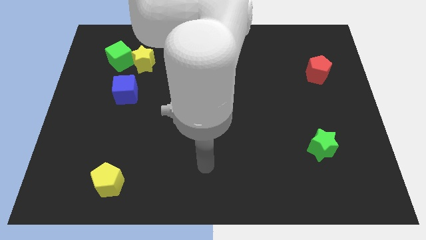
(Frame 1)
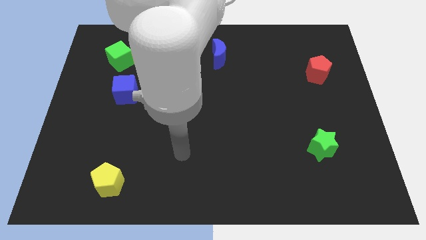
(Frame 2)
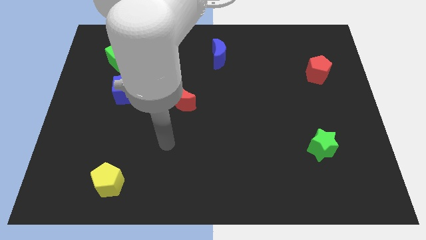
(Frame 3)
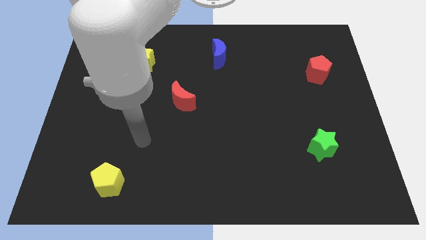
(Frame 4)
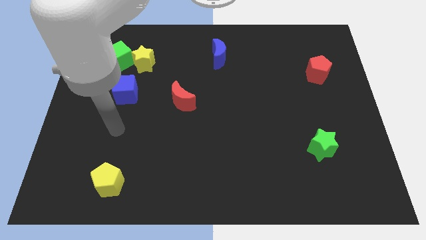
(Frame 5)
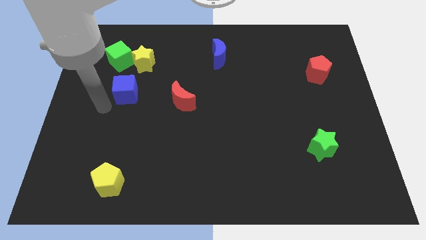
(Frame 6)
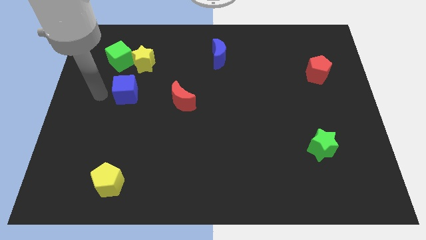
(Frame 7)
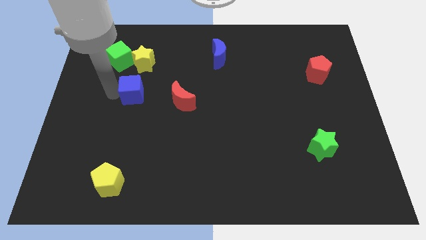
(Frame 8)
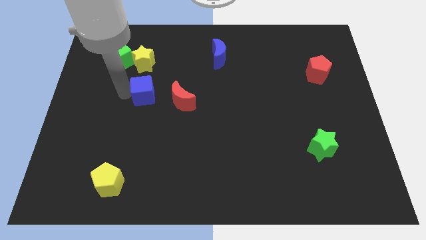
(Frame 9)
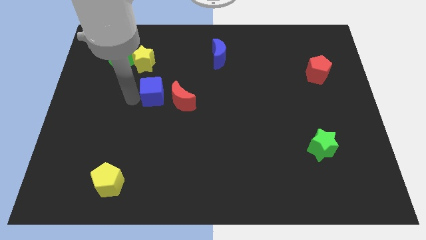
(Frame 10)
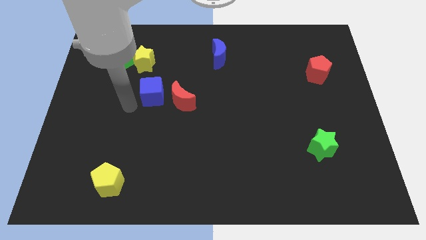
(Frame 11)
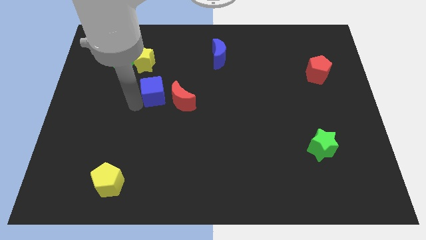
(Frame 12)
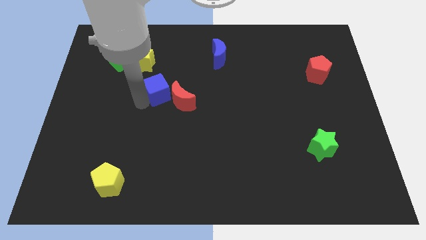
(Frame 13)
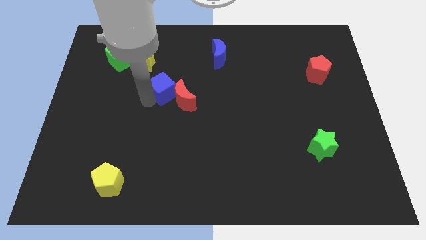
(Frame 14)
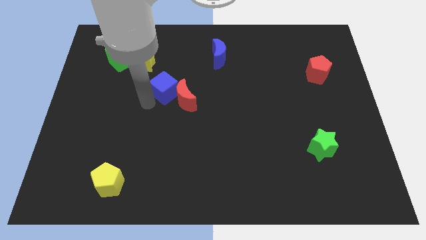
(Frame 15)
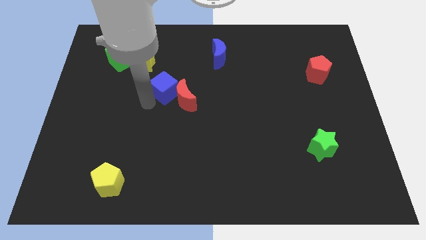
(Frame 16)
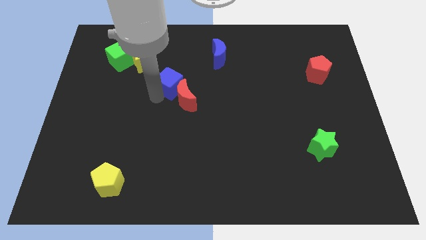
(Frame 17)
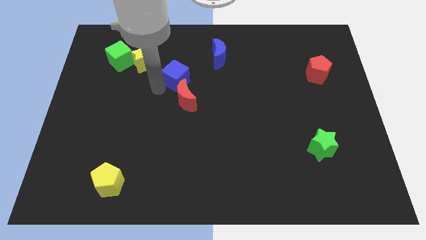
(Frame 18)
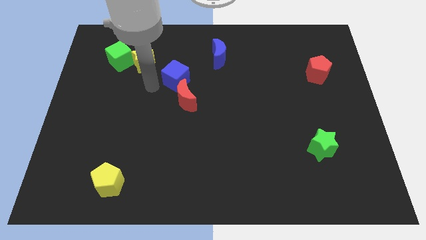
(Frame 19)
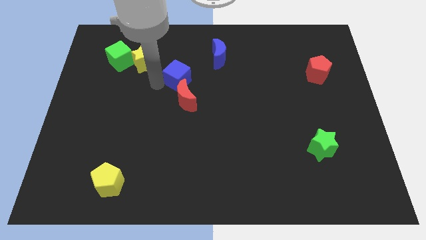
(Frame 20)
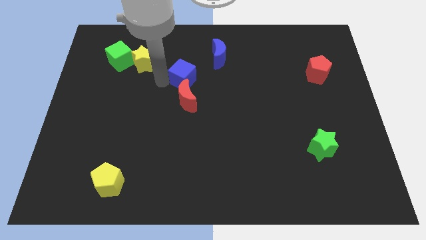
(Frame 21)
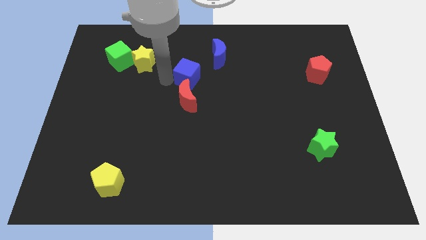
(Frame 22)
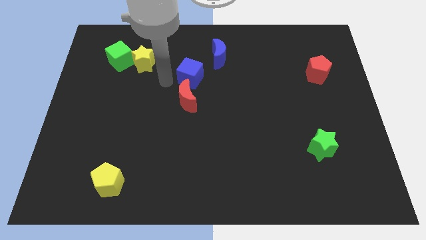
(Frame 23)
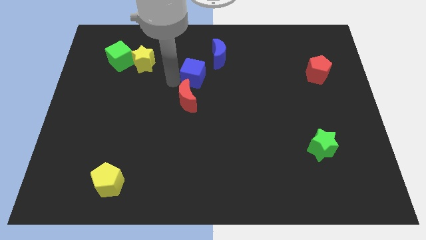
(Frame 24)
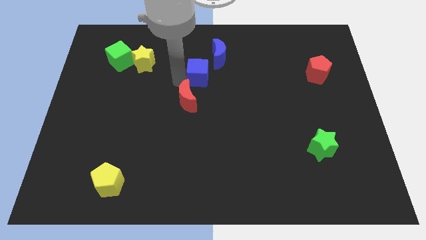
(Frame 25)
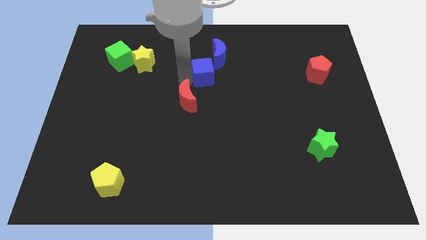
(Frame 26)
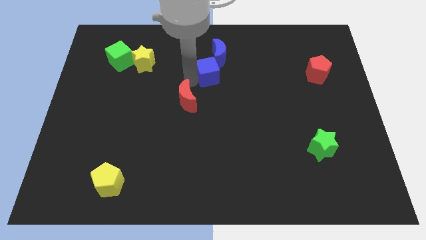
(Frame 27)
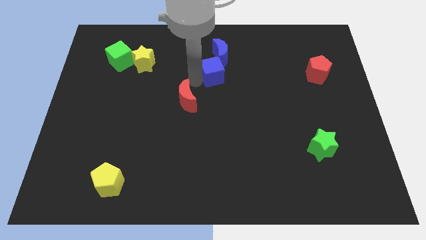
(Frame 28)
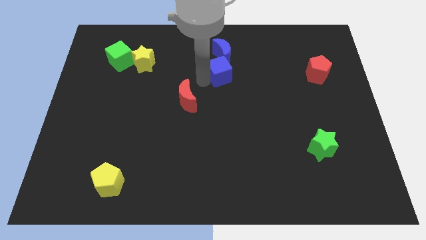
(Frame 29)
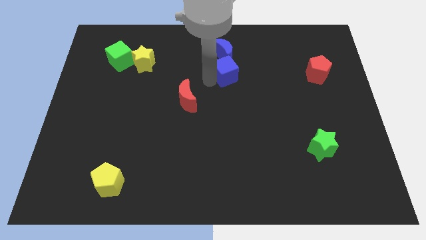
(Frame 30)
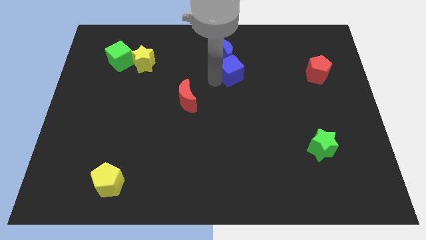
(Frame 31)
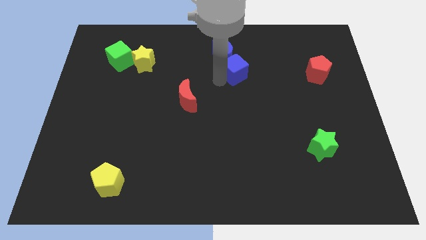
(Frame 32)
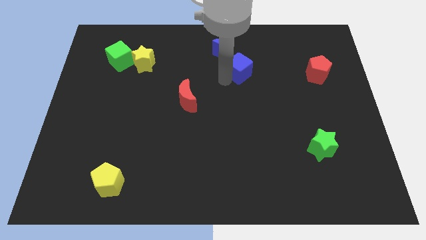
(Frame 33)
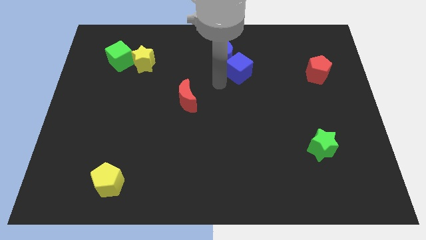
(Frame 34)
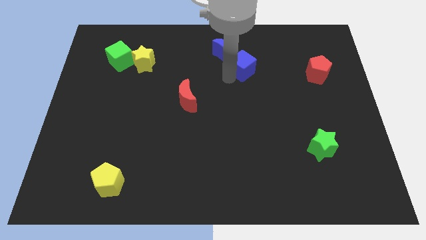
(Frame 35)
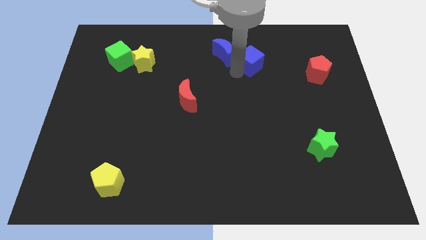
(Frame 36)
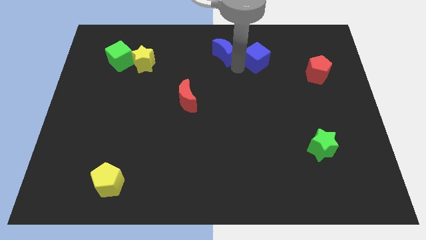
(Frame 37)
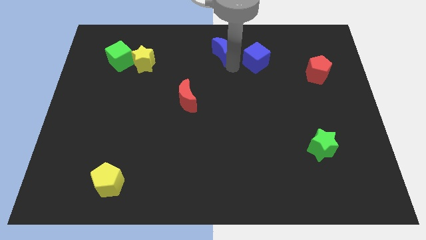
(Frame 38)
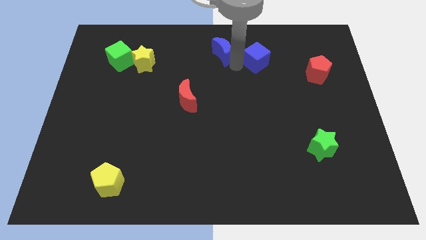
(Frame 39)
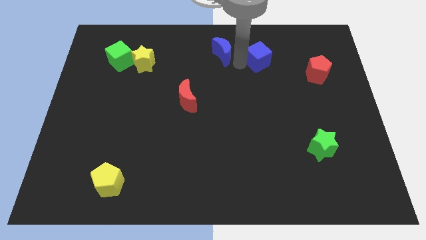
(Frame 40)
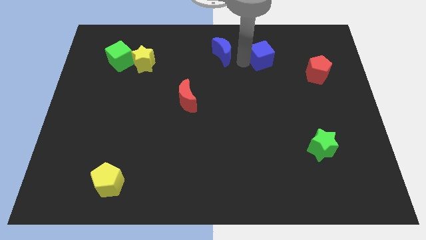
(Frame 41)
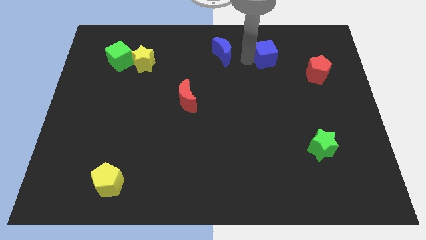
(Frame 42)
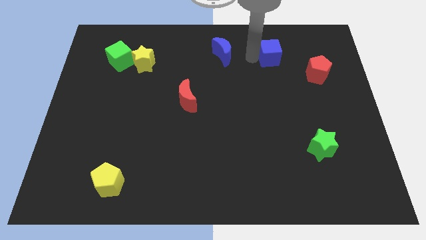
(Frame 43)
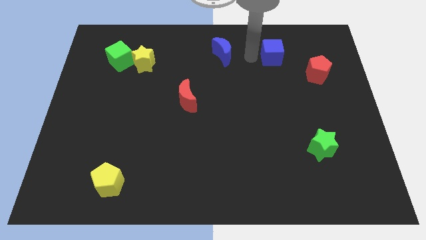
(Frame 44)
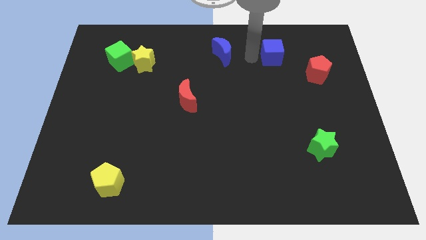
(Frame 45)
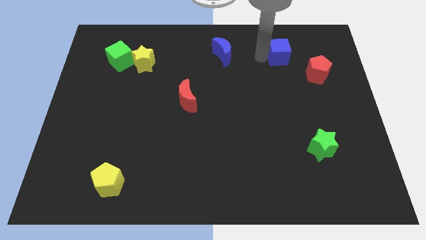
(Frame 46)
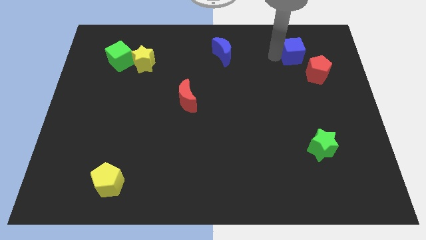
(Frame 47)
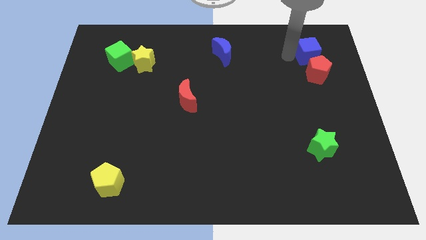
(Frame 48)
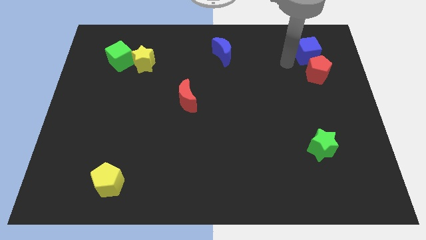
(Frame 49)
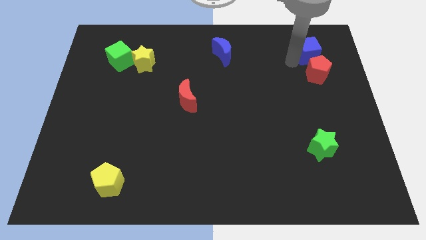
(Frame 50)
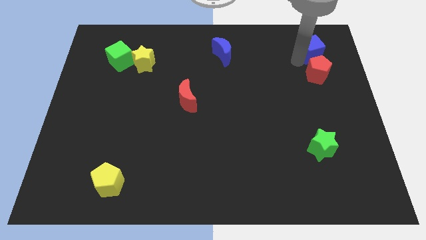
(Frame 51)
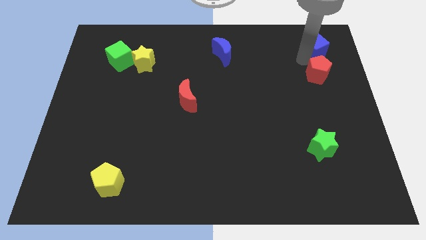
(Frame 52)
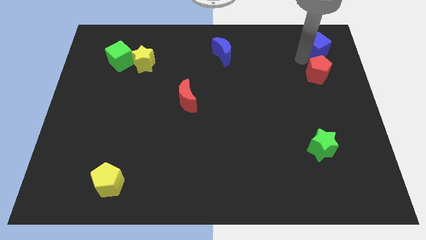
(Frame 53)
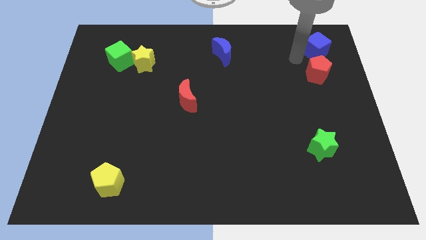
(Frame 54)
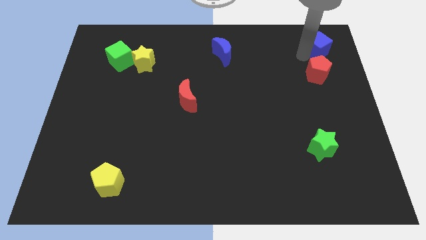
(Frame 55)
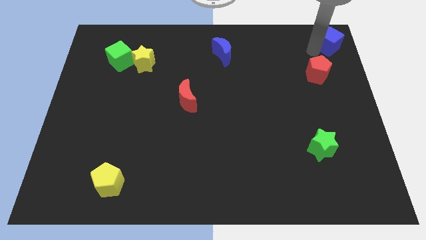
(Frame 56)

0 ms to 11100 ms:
move the blue cube to the top right corner
